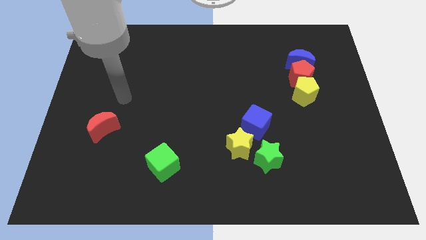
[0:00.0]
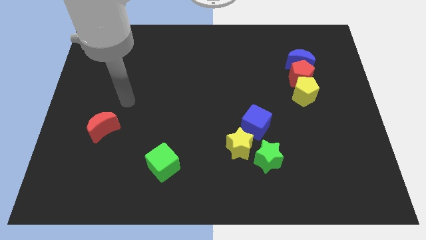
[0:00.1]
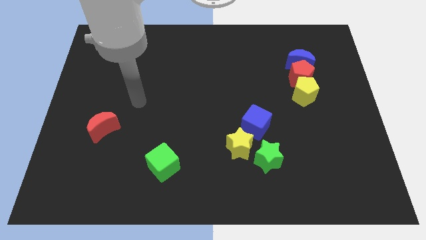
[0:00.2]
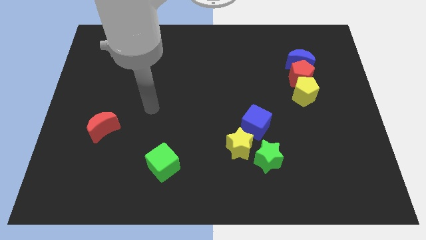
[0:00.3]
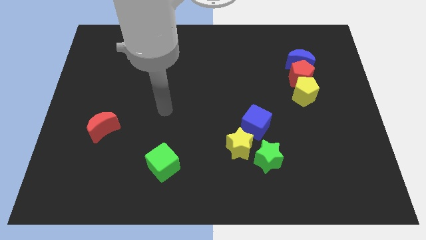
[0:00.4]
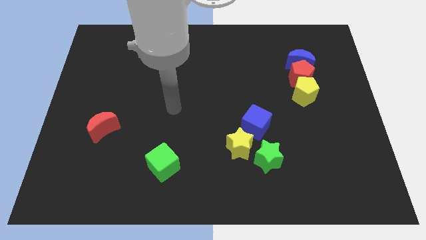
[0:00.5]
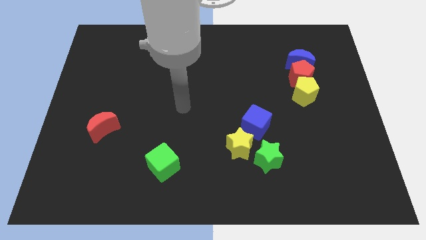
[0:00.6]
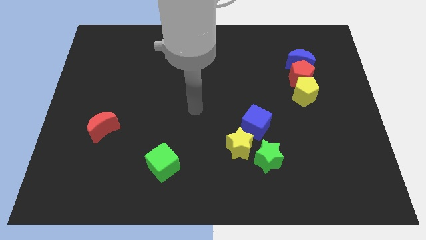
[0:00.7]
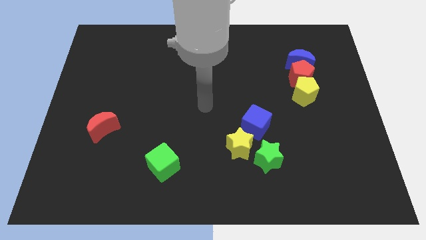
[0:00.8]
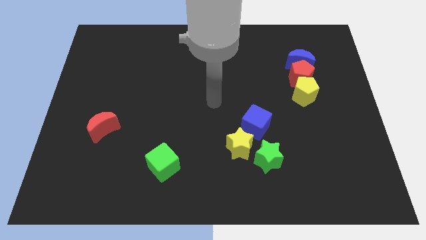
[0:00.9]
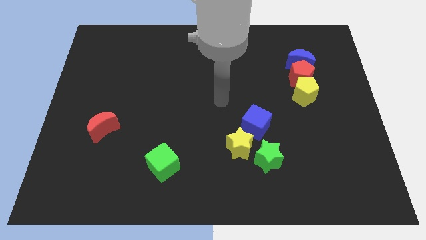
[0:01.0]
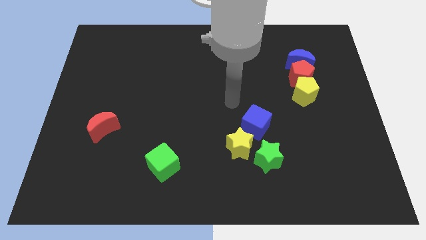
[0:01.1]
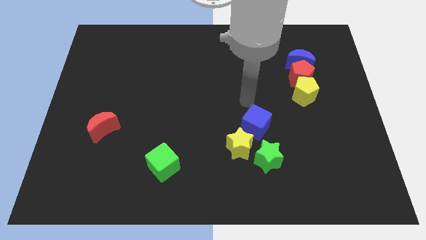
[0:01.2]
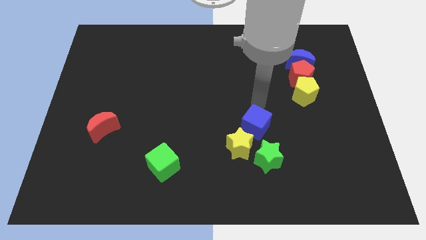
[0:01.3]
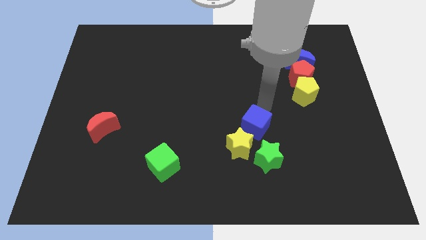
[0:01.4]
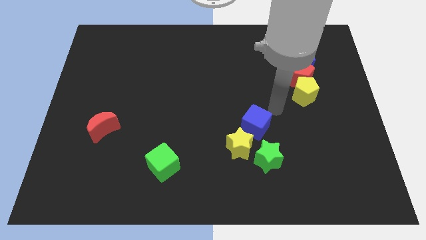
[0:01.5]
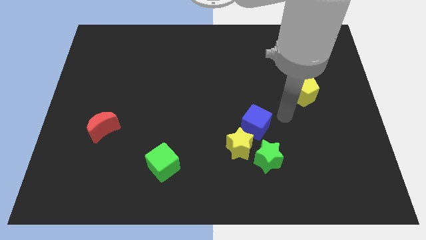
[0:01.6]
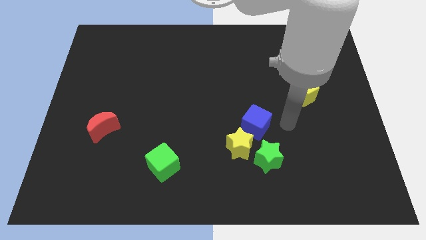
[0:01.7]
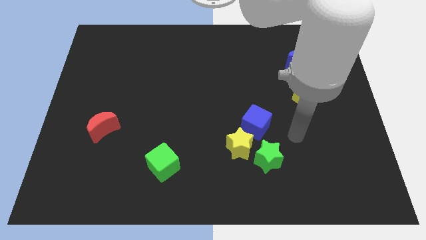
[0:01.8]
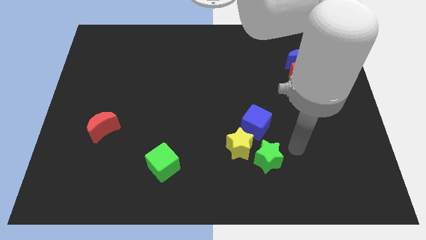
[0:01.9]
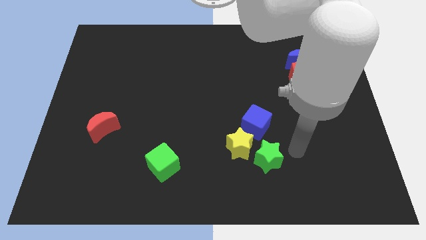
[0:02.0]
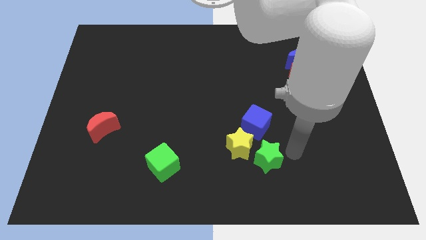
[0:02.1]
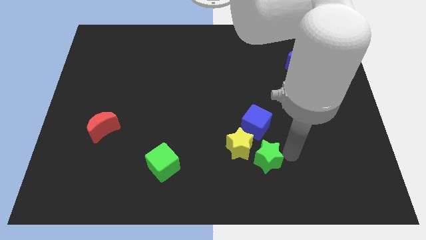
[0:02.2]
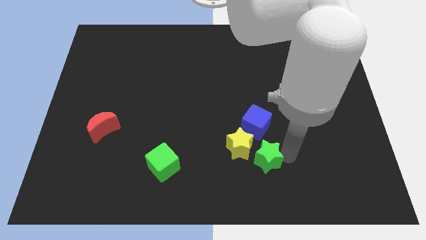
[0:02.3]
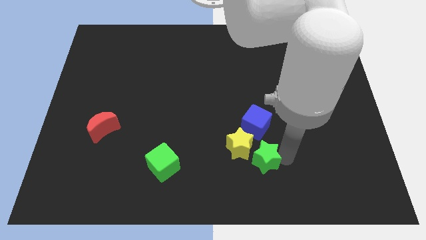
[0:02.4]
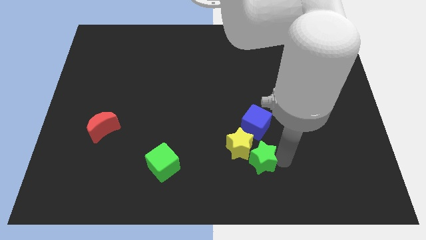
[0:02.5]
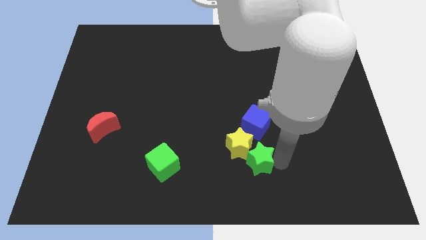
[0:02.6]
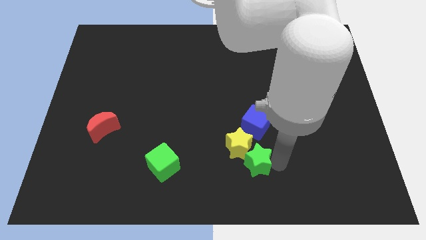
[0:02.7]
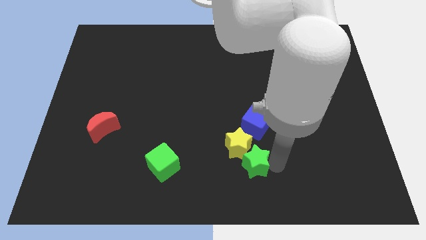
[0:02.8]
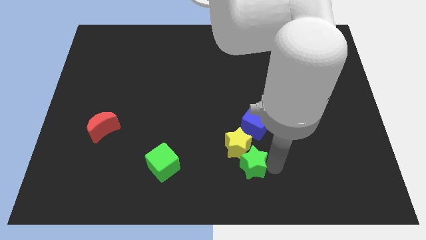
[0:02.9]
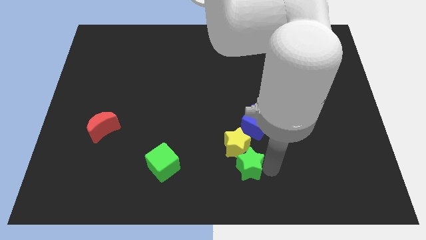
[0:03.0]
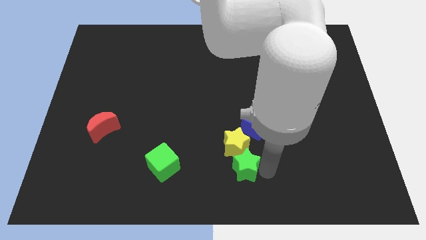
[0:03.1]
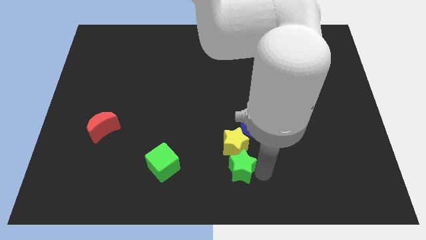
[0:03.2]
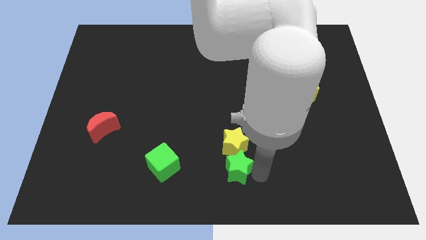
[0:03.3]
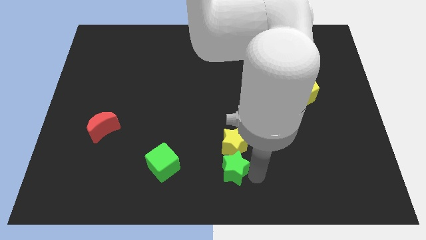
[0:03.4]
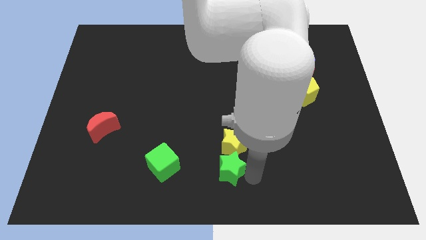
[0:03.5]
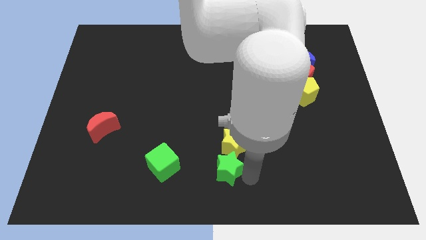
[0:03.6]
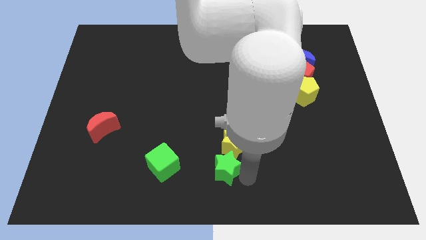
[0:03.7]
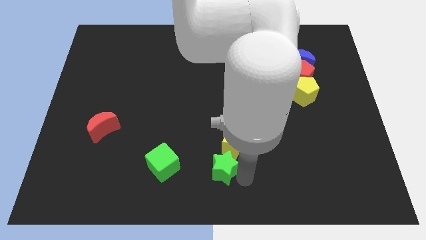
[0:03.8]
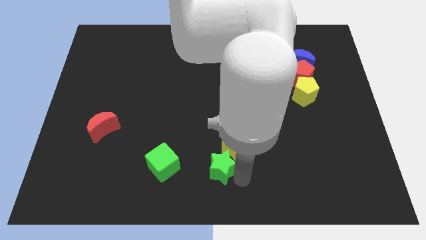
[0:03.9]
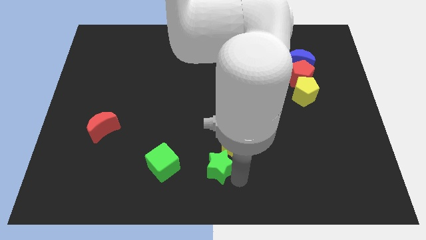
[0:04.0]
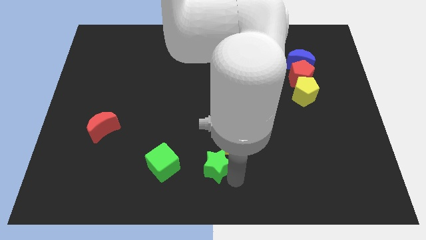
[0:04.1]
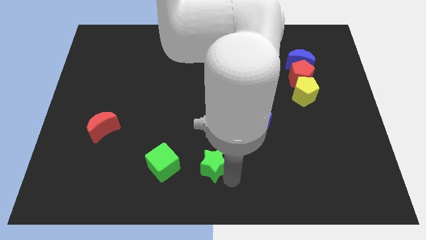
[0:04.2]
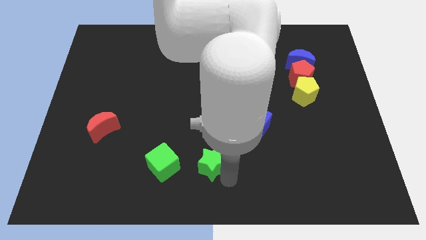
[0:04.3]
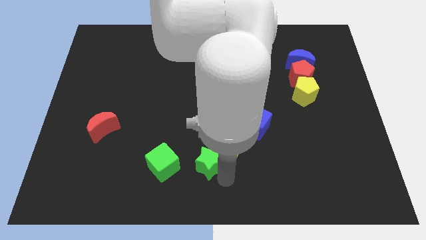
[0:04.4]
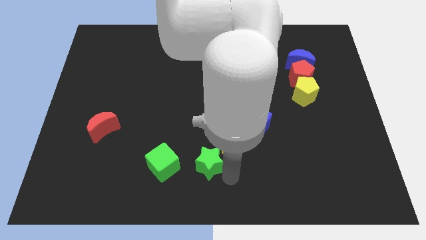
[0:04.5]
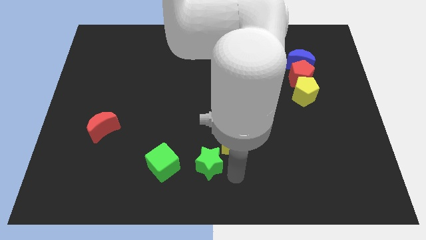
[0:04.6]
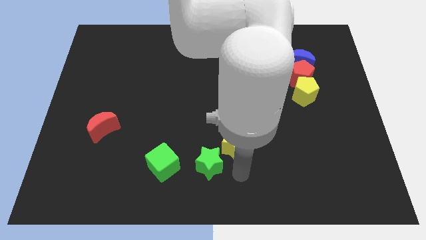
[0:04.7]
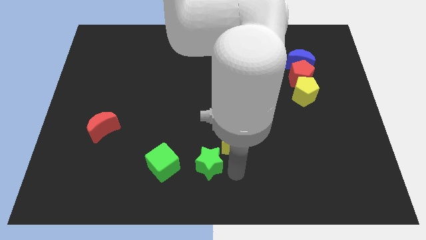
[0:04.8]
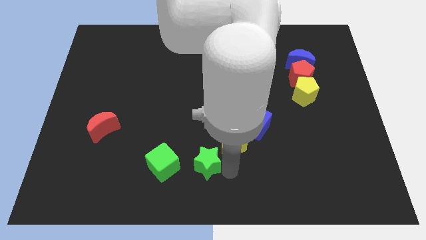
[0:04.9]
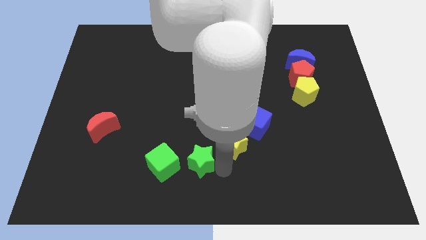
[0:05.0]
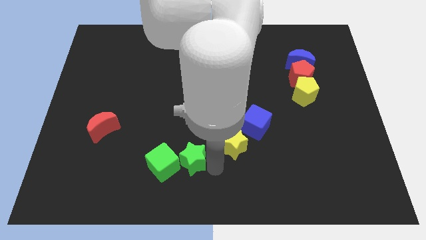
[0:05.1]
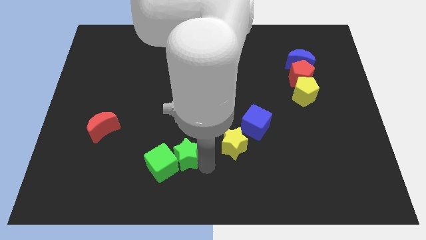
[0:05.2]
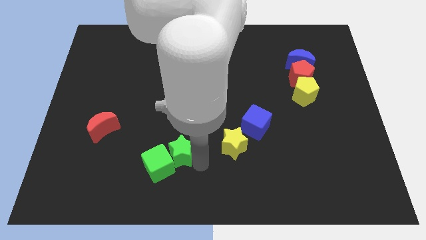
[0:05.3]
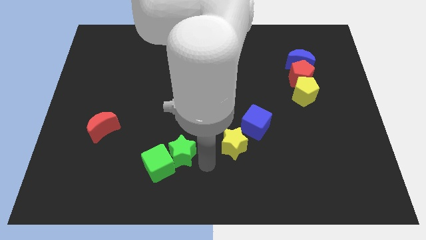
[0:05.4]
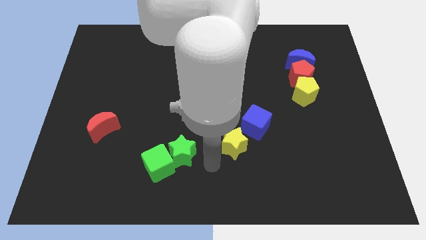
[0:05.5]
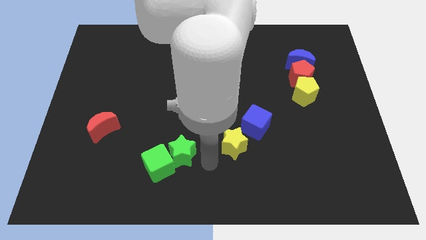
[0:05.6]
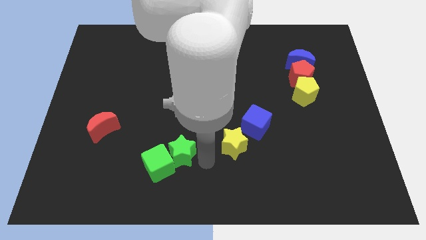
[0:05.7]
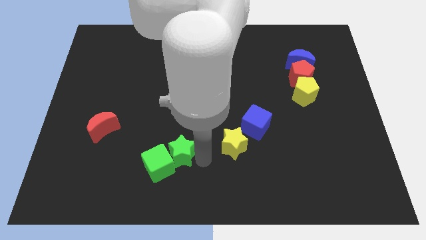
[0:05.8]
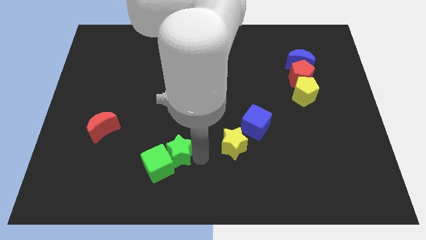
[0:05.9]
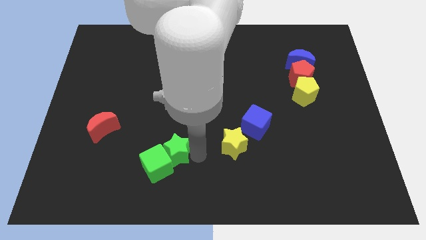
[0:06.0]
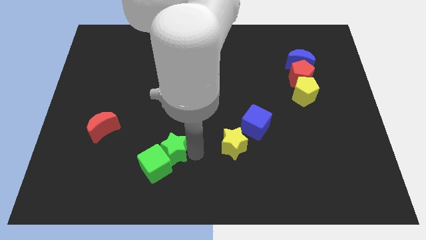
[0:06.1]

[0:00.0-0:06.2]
move the green star left

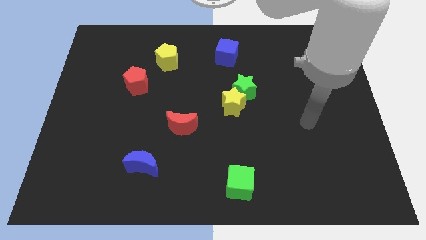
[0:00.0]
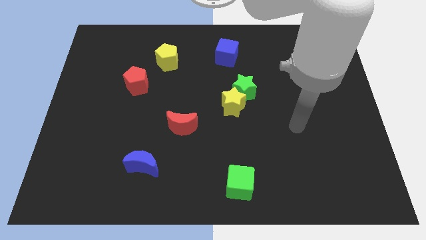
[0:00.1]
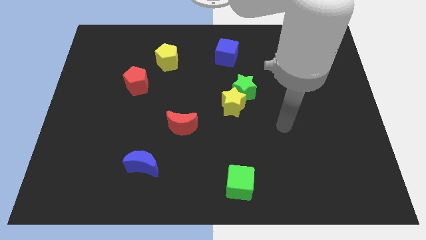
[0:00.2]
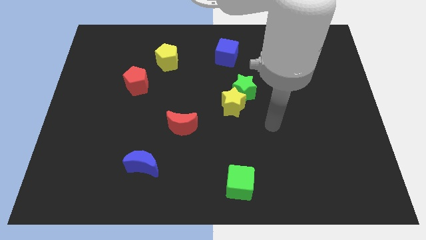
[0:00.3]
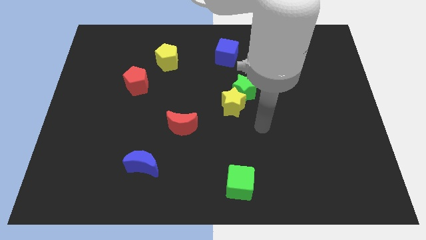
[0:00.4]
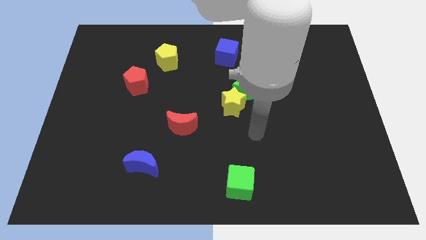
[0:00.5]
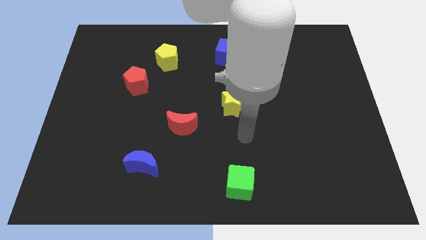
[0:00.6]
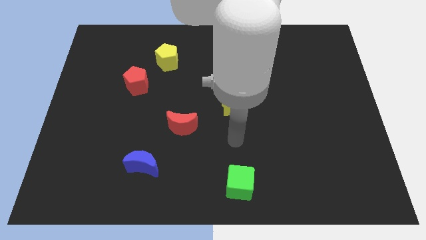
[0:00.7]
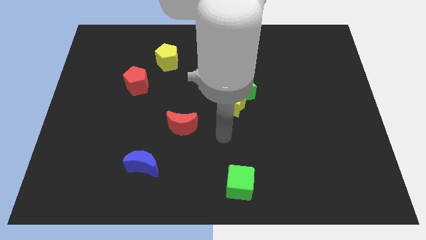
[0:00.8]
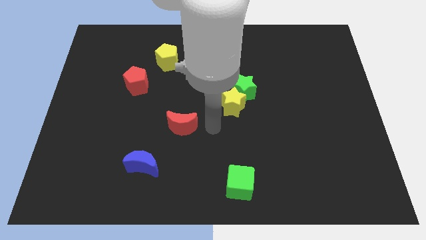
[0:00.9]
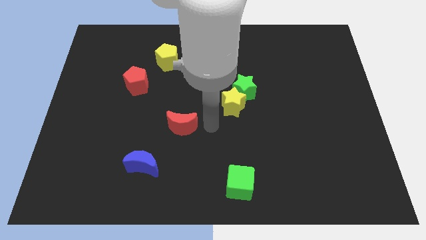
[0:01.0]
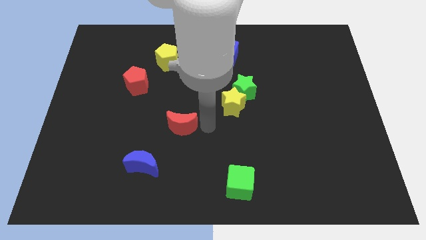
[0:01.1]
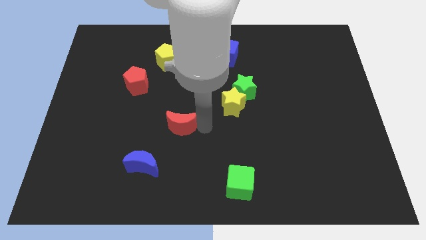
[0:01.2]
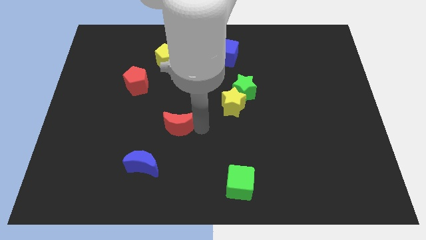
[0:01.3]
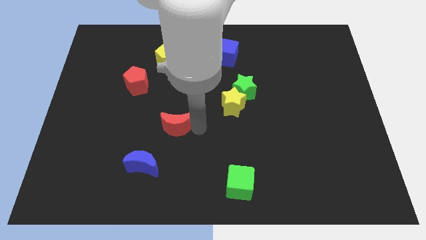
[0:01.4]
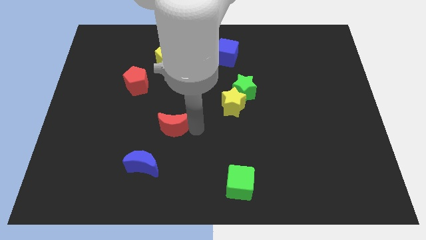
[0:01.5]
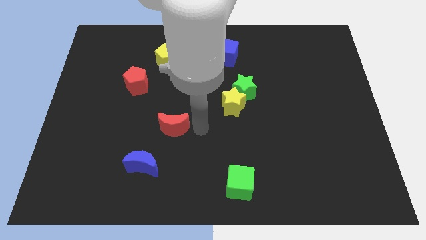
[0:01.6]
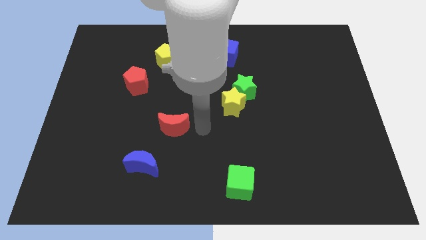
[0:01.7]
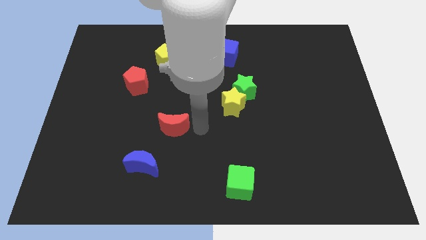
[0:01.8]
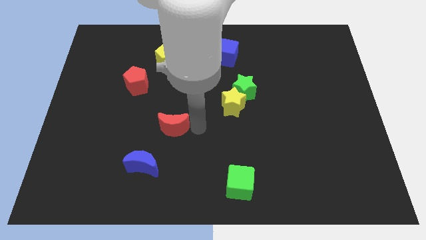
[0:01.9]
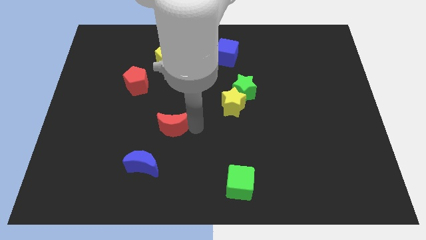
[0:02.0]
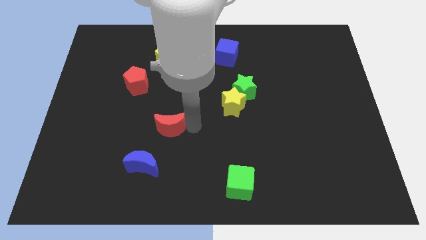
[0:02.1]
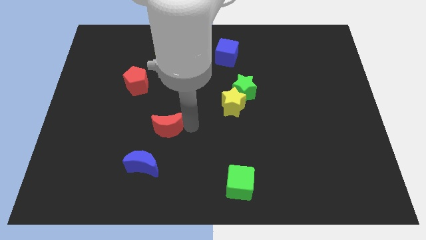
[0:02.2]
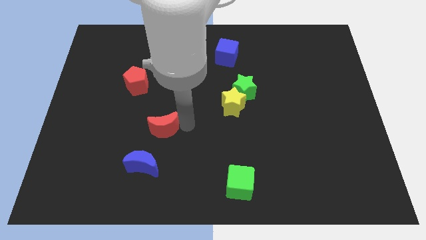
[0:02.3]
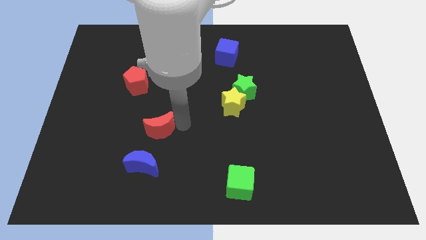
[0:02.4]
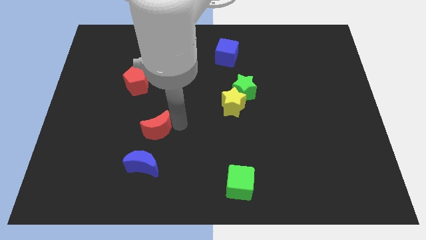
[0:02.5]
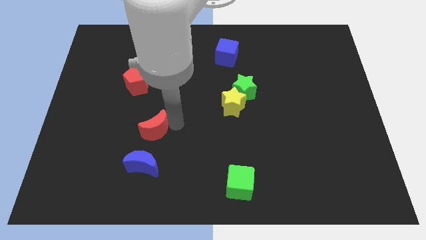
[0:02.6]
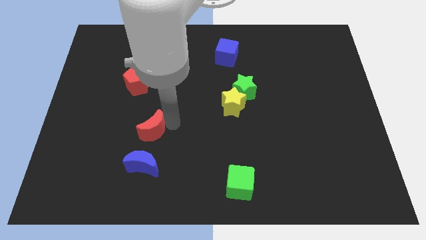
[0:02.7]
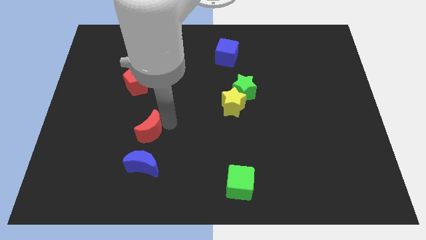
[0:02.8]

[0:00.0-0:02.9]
move the red moon somewhat to the left
